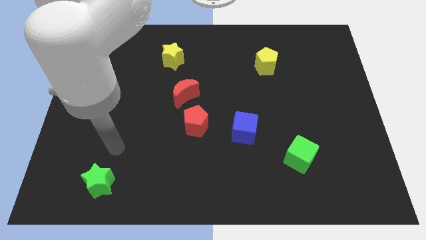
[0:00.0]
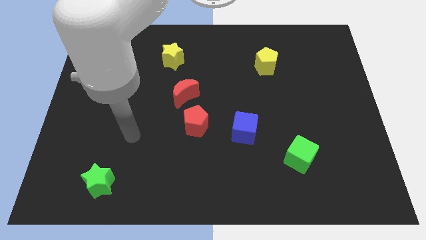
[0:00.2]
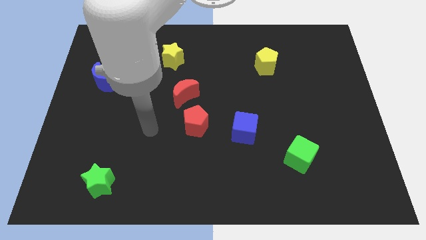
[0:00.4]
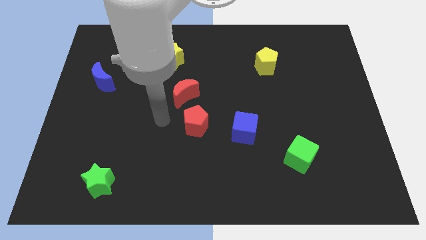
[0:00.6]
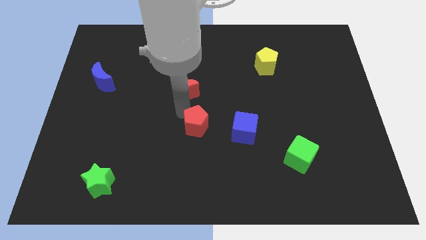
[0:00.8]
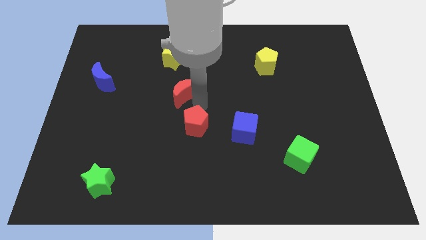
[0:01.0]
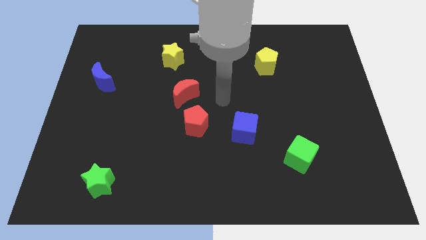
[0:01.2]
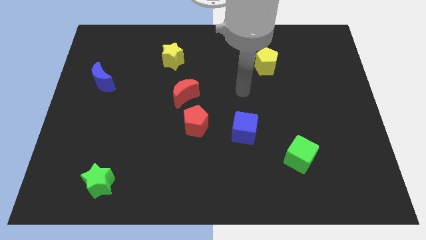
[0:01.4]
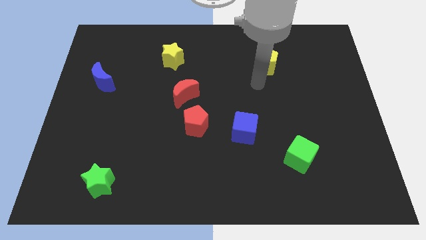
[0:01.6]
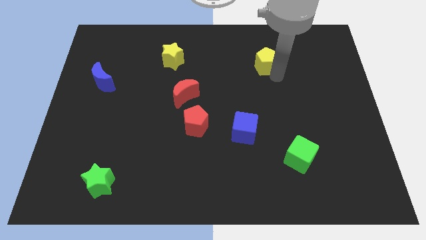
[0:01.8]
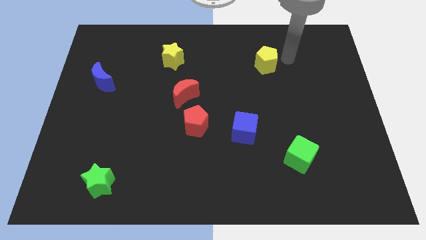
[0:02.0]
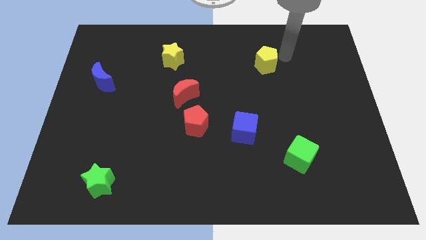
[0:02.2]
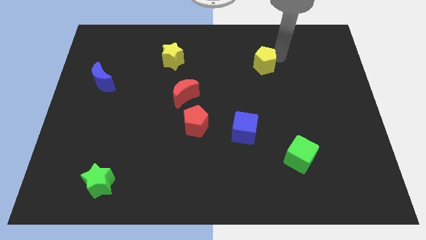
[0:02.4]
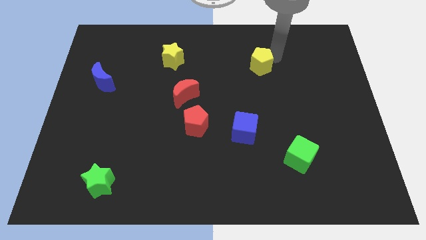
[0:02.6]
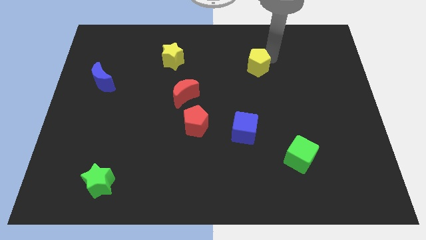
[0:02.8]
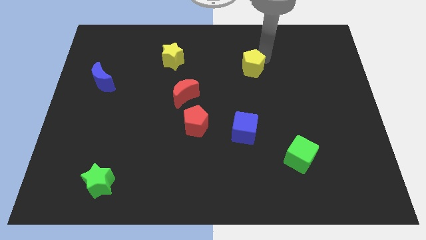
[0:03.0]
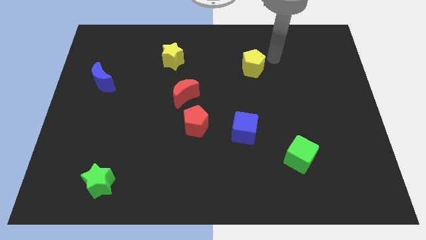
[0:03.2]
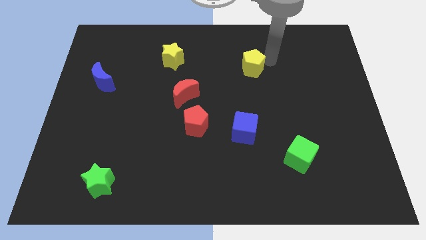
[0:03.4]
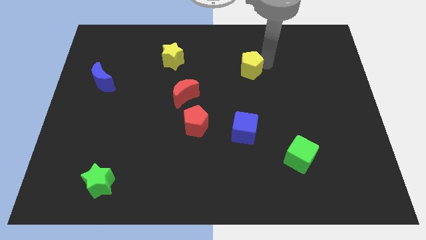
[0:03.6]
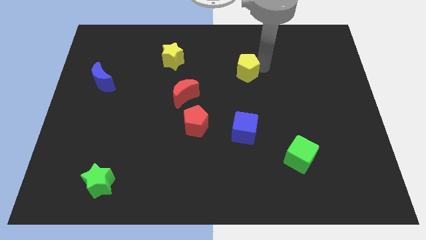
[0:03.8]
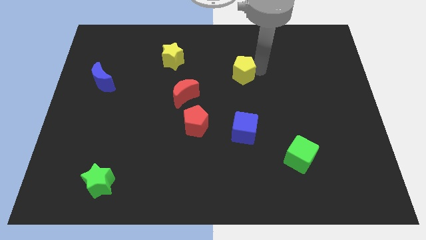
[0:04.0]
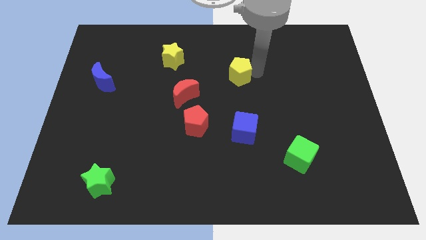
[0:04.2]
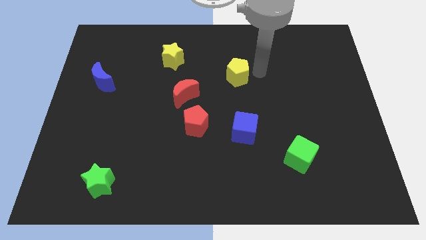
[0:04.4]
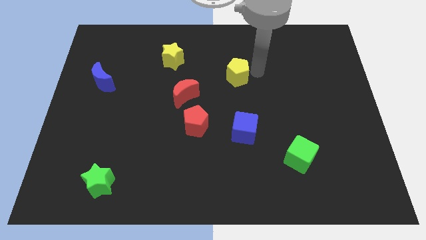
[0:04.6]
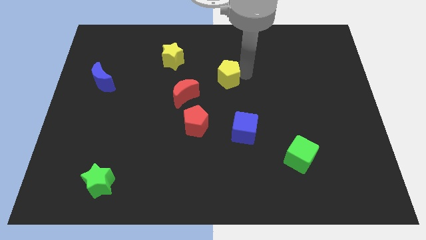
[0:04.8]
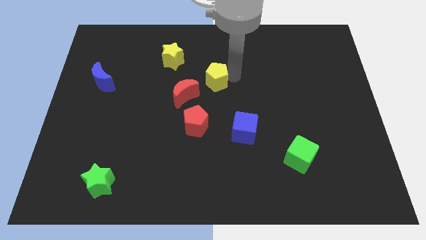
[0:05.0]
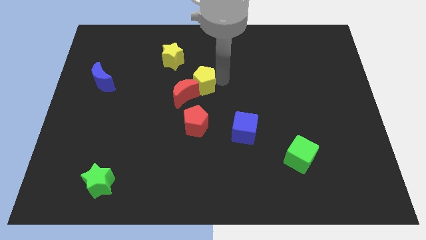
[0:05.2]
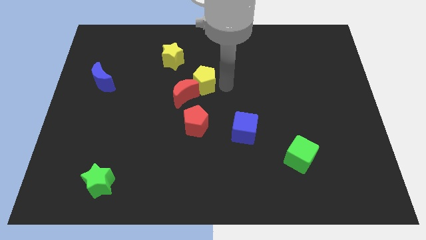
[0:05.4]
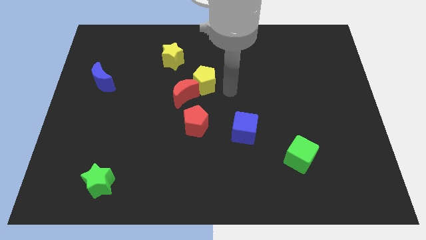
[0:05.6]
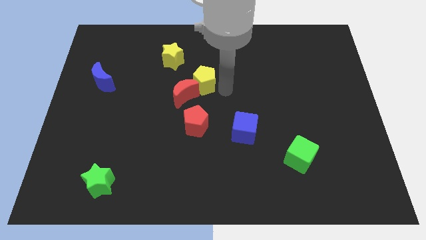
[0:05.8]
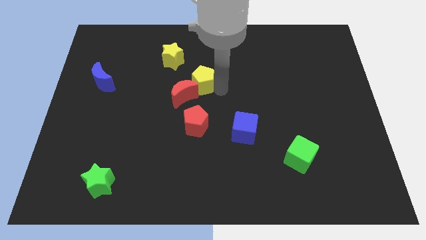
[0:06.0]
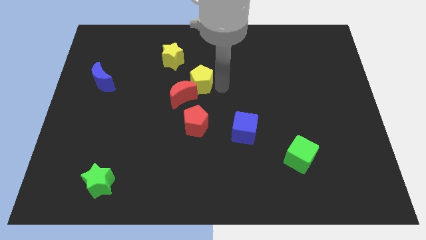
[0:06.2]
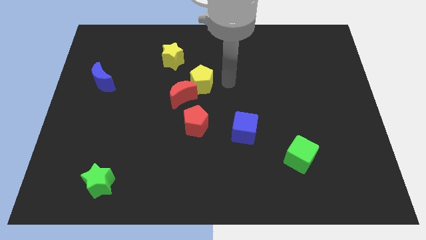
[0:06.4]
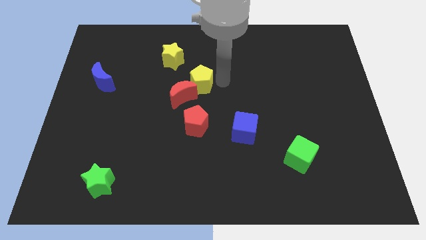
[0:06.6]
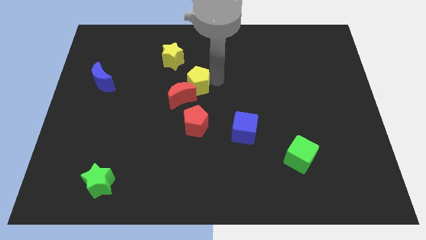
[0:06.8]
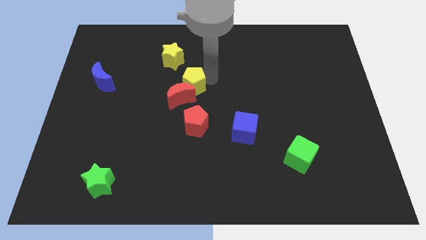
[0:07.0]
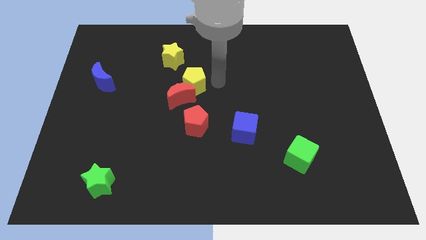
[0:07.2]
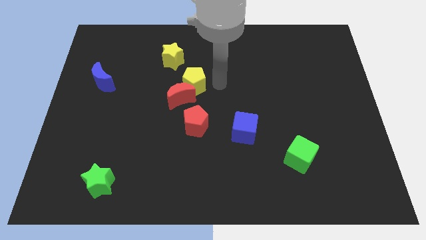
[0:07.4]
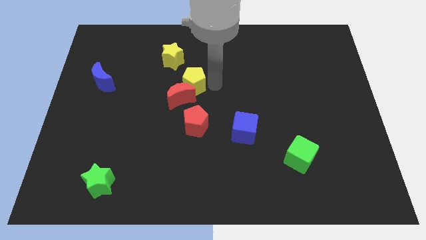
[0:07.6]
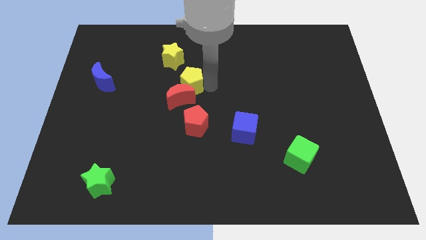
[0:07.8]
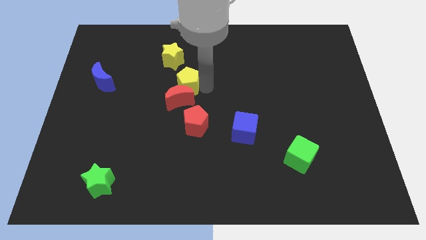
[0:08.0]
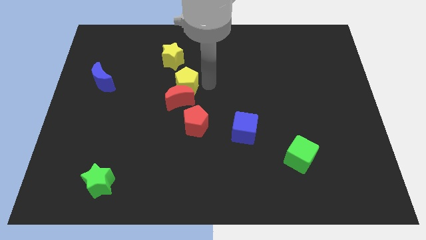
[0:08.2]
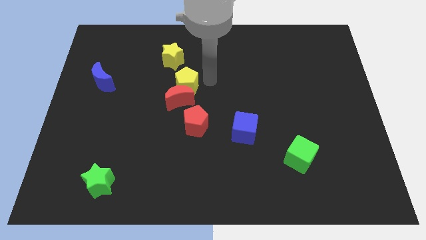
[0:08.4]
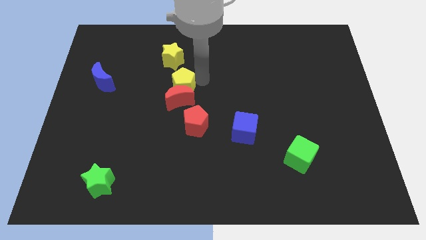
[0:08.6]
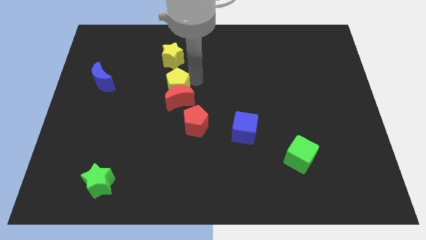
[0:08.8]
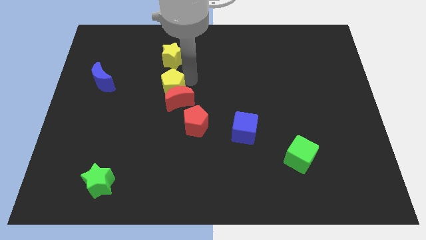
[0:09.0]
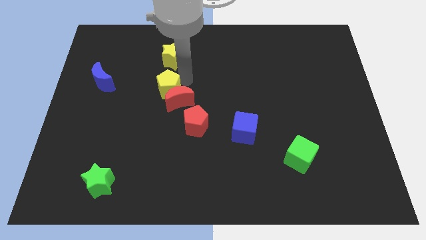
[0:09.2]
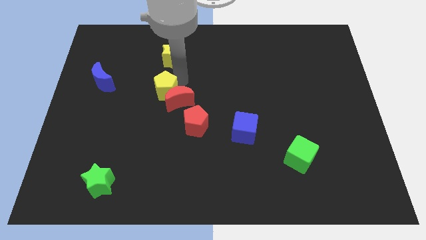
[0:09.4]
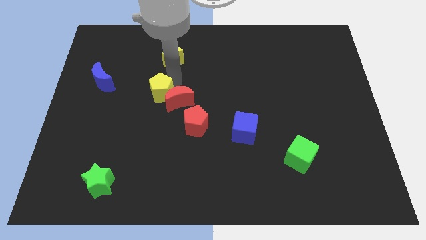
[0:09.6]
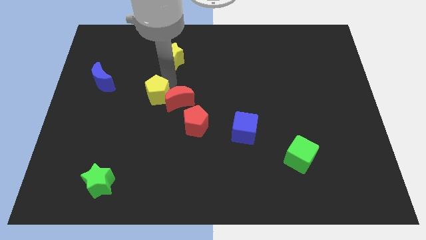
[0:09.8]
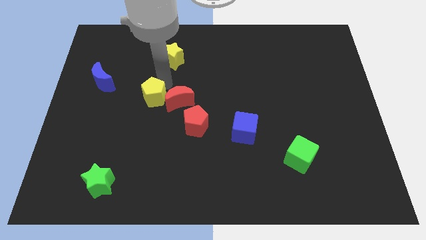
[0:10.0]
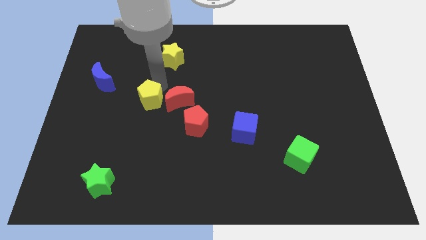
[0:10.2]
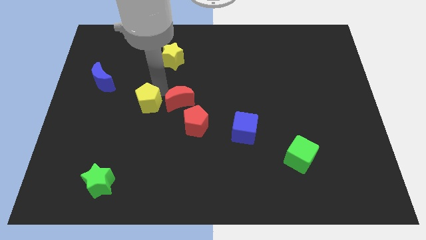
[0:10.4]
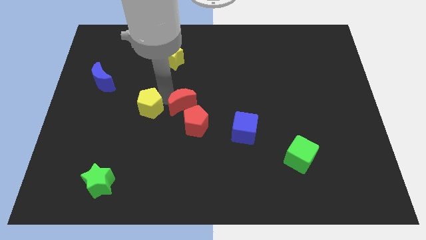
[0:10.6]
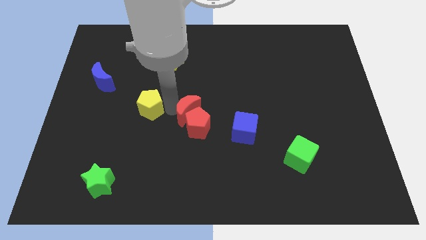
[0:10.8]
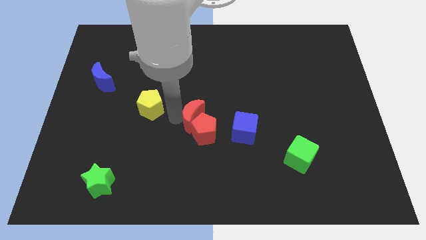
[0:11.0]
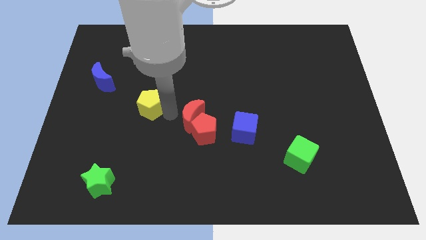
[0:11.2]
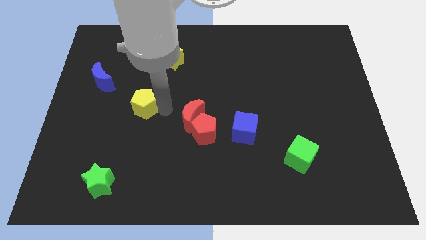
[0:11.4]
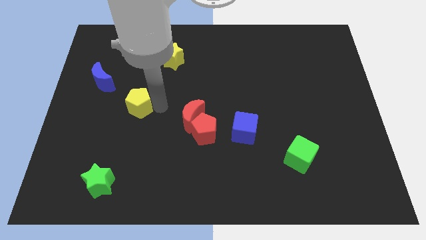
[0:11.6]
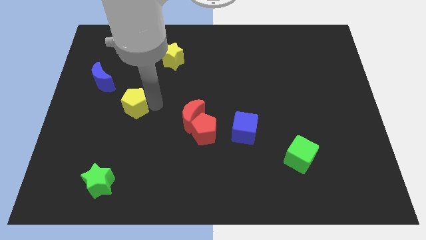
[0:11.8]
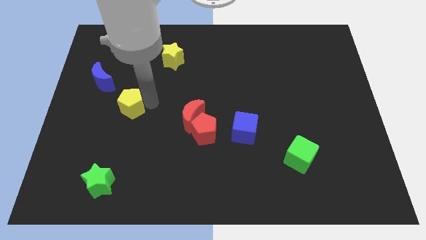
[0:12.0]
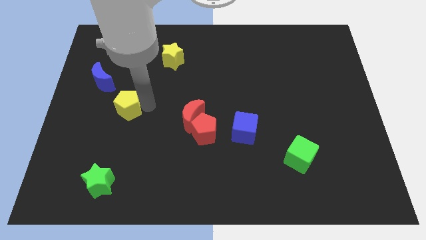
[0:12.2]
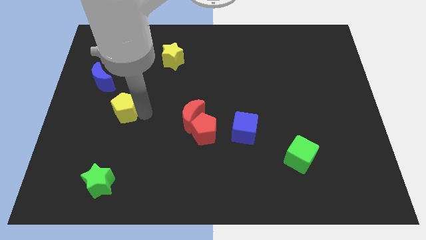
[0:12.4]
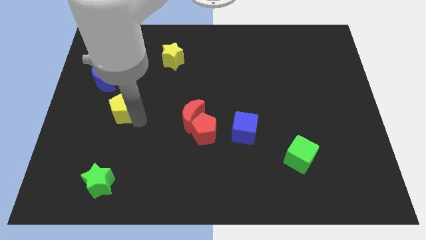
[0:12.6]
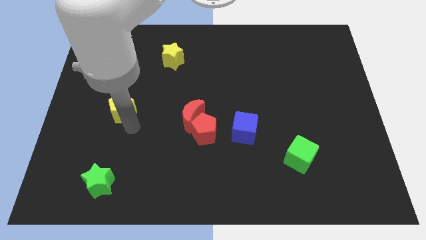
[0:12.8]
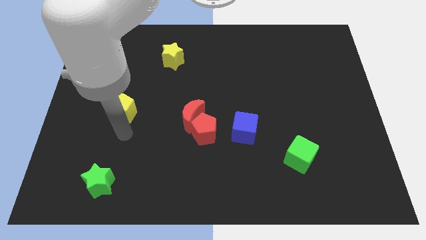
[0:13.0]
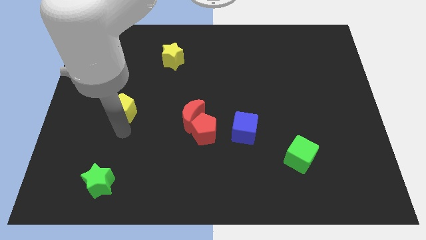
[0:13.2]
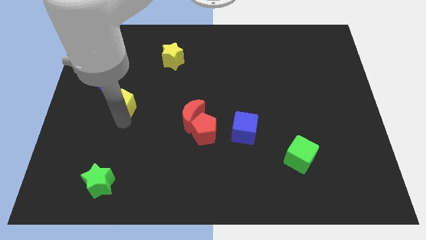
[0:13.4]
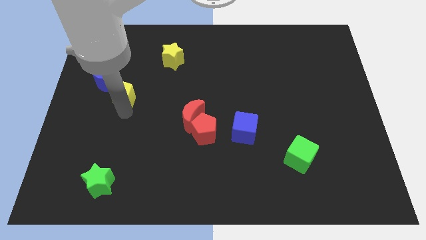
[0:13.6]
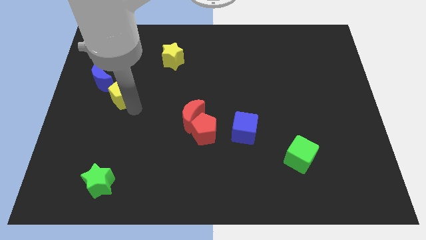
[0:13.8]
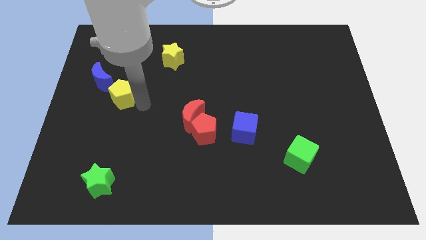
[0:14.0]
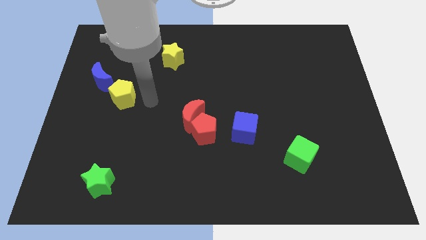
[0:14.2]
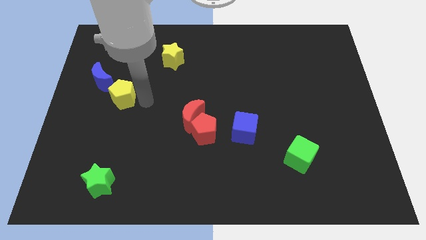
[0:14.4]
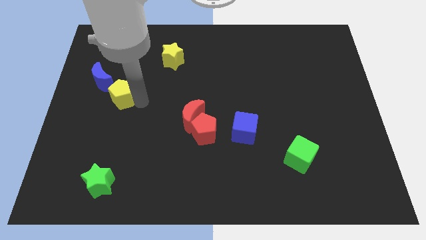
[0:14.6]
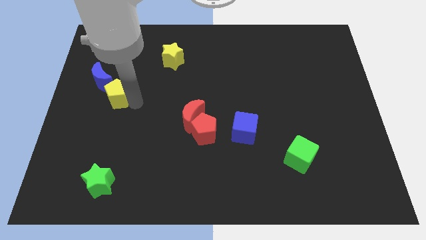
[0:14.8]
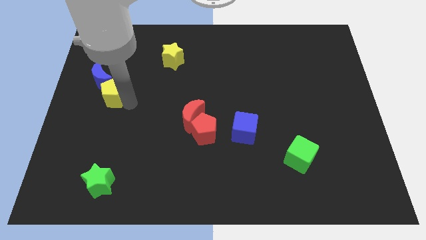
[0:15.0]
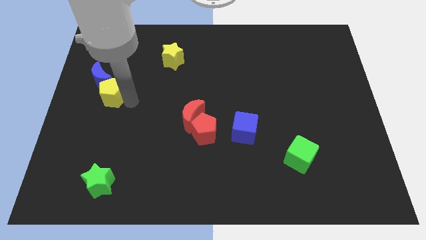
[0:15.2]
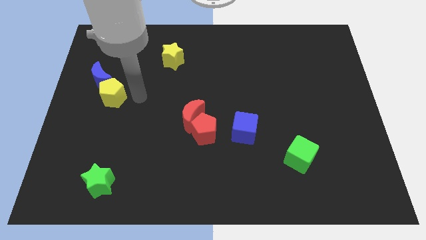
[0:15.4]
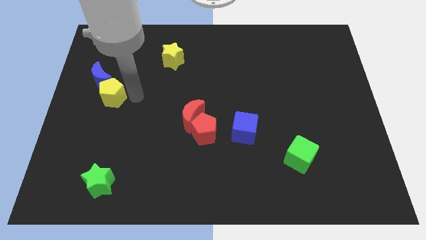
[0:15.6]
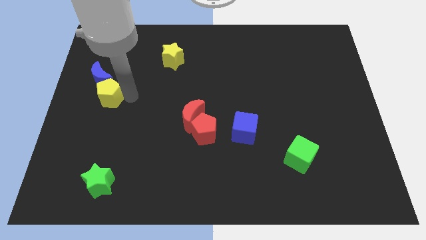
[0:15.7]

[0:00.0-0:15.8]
move the yellow pentagon to the center left
